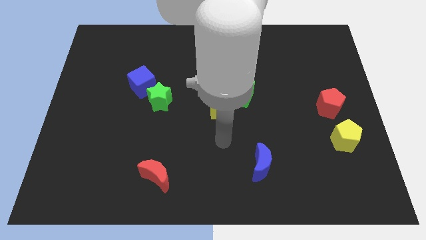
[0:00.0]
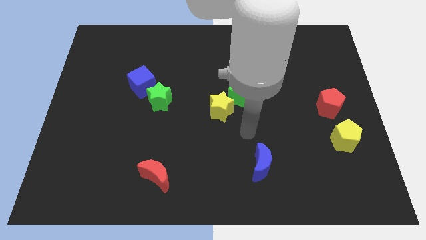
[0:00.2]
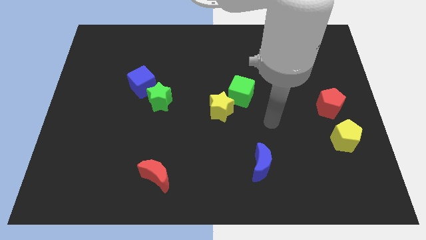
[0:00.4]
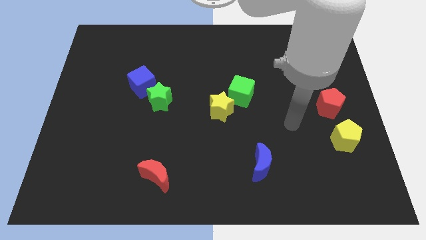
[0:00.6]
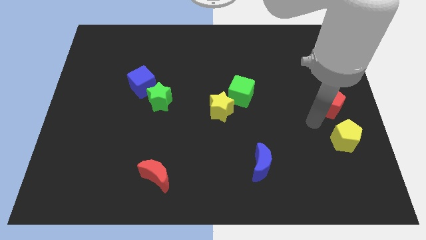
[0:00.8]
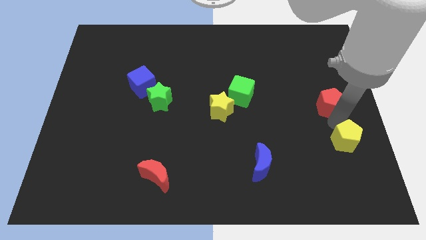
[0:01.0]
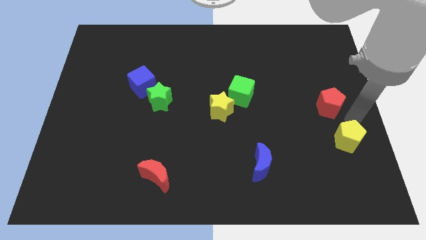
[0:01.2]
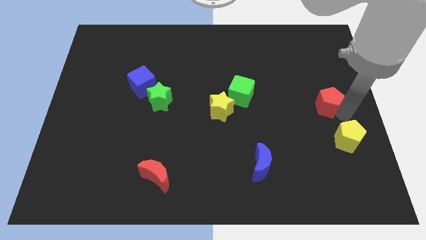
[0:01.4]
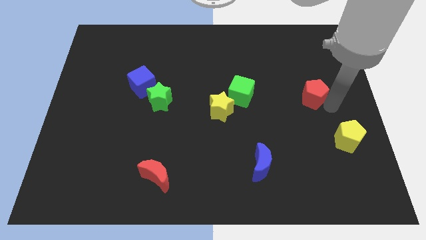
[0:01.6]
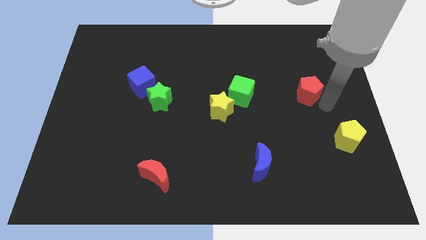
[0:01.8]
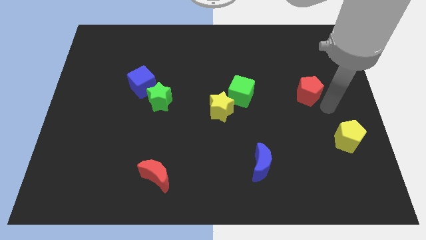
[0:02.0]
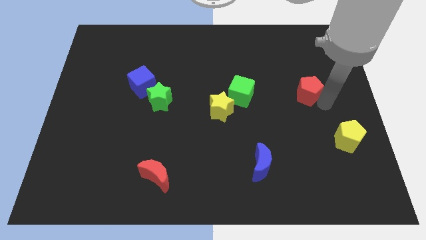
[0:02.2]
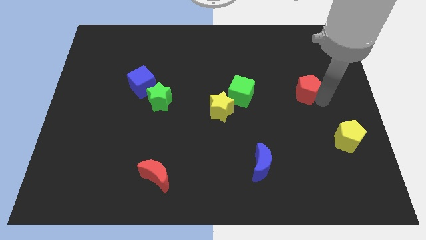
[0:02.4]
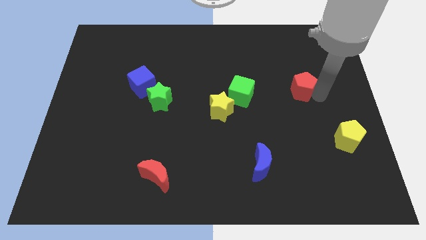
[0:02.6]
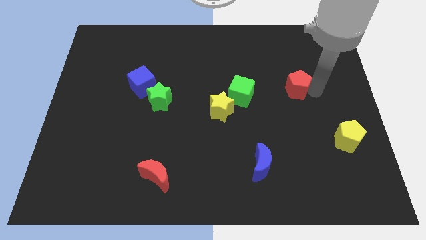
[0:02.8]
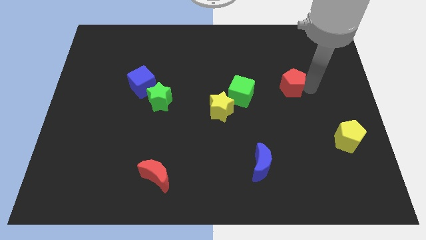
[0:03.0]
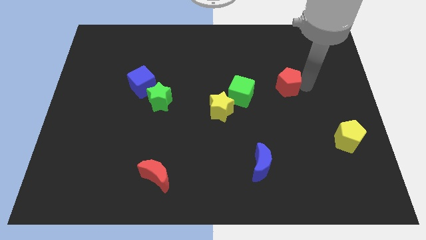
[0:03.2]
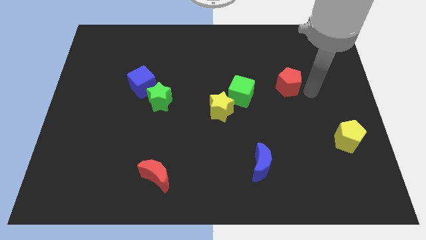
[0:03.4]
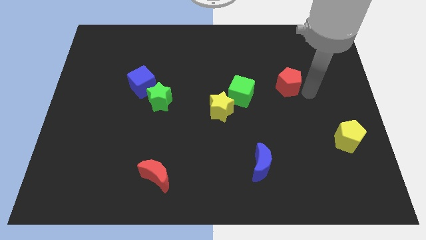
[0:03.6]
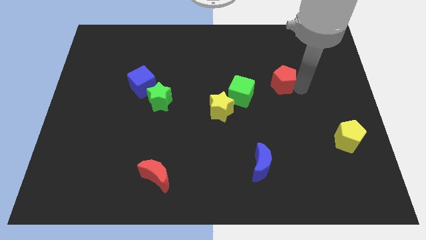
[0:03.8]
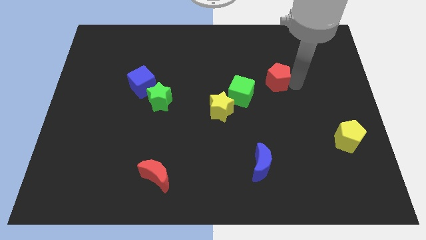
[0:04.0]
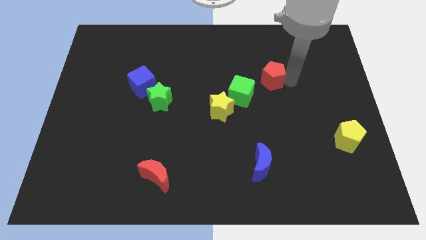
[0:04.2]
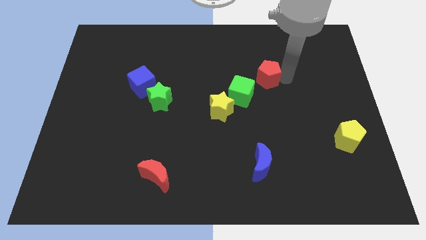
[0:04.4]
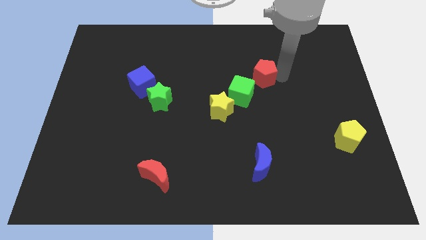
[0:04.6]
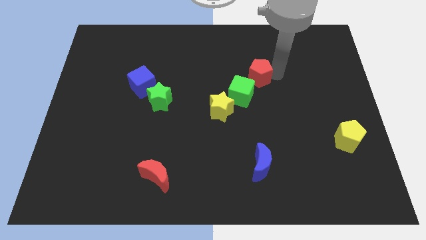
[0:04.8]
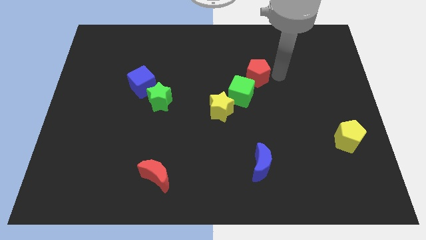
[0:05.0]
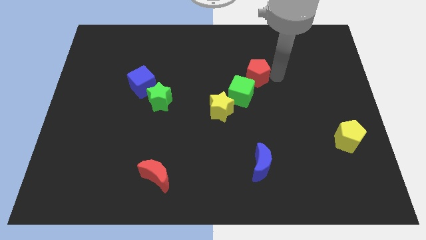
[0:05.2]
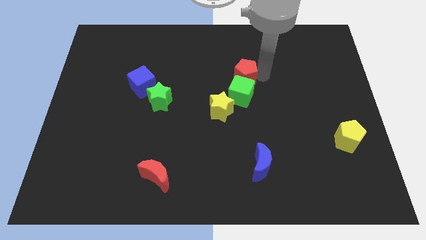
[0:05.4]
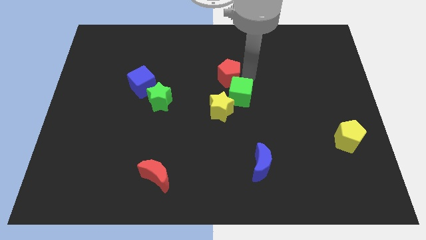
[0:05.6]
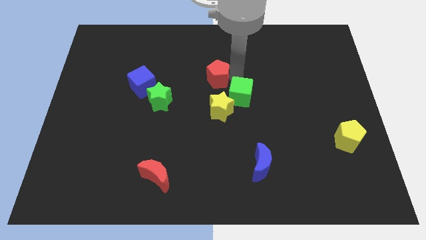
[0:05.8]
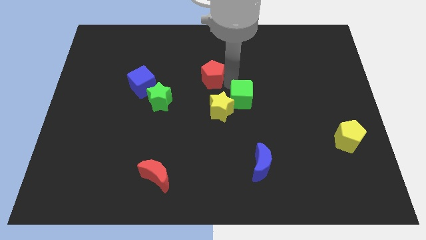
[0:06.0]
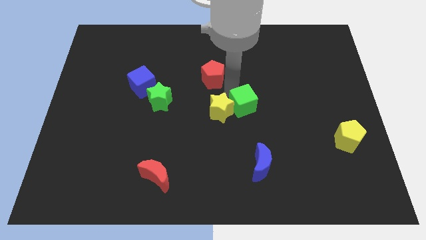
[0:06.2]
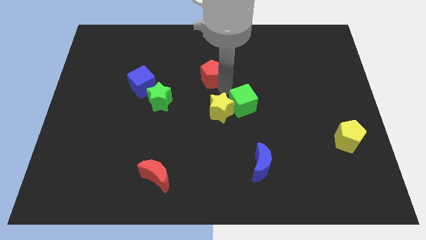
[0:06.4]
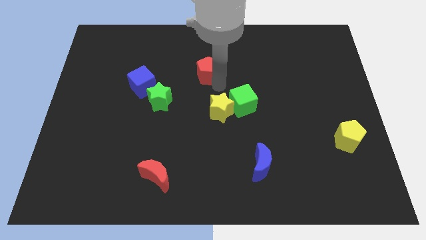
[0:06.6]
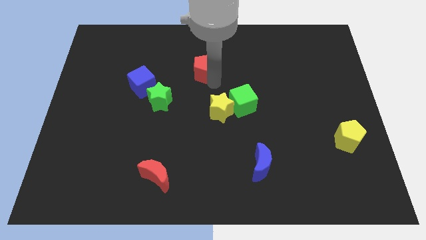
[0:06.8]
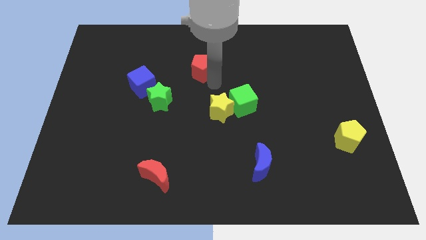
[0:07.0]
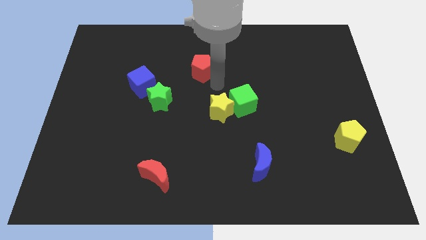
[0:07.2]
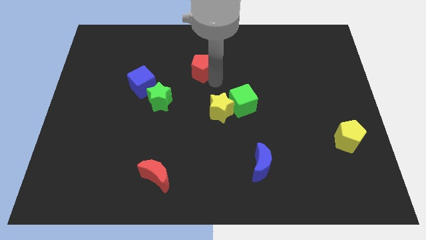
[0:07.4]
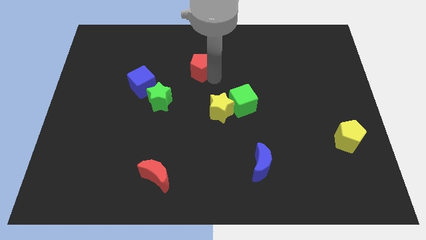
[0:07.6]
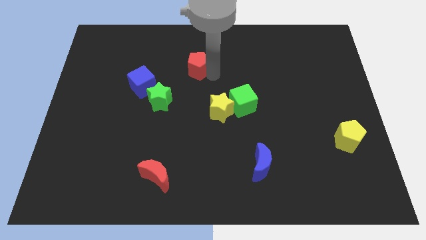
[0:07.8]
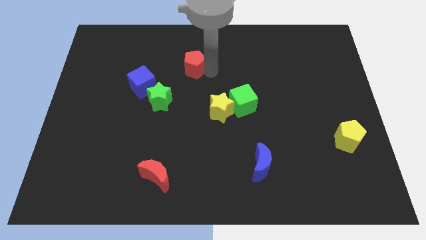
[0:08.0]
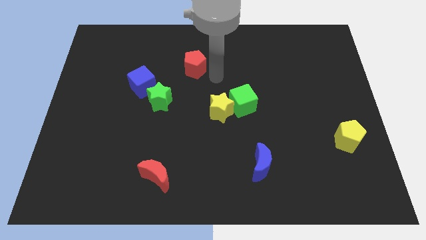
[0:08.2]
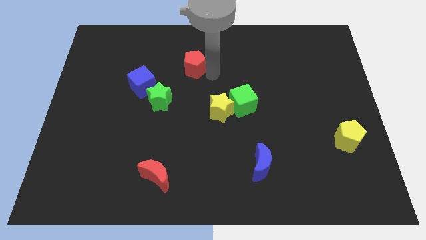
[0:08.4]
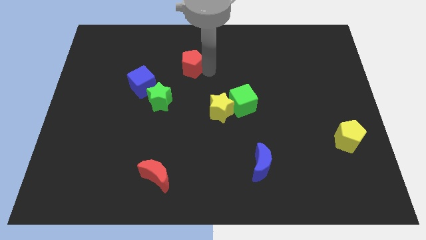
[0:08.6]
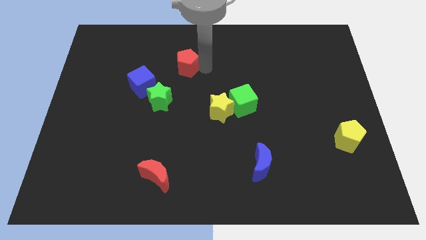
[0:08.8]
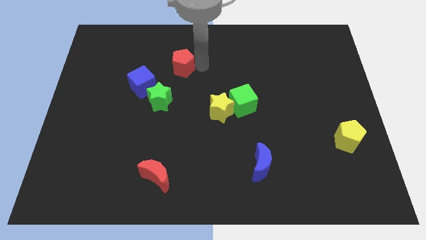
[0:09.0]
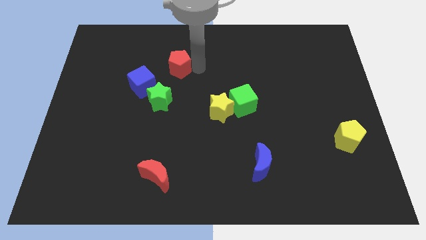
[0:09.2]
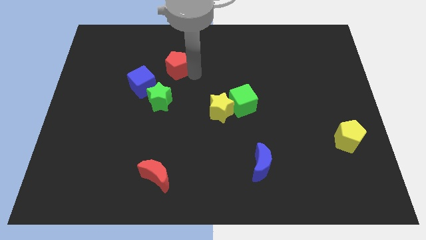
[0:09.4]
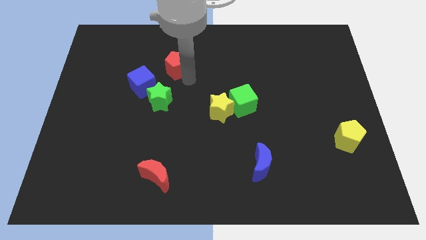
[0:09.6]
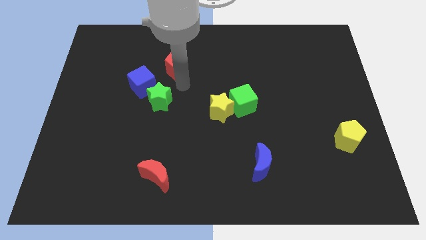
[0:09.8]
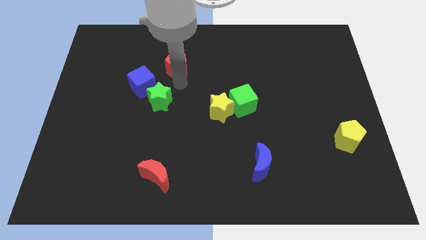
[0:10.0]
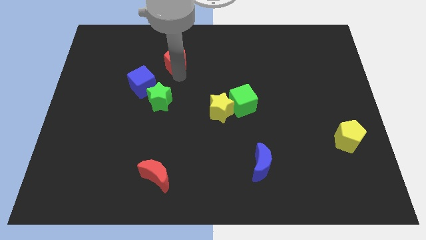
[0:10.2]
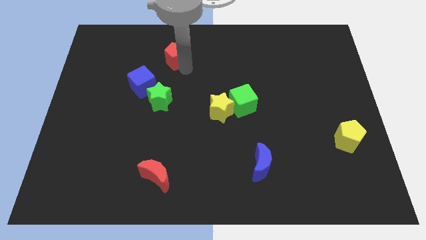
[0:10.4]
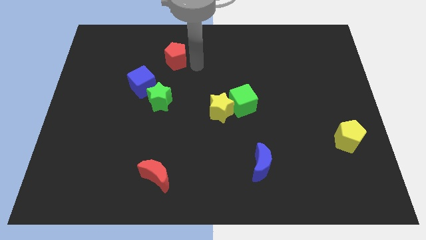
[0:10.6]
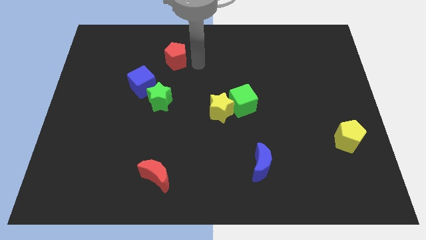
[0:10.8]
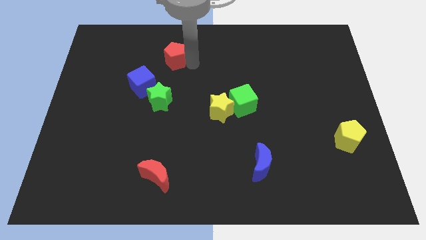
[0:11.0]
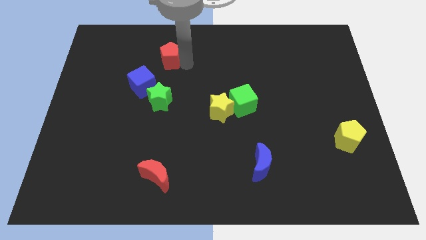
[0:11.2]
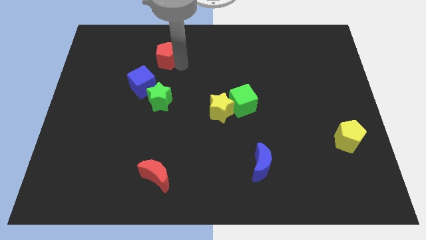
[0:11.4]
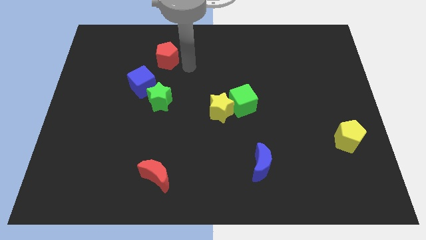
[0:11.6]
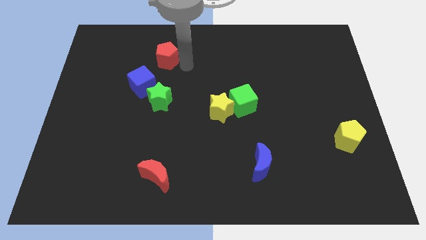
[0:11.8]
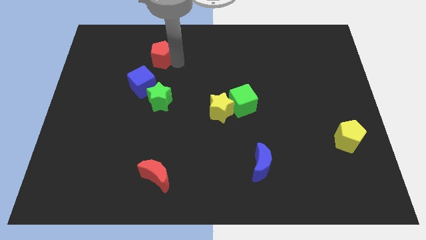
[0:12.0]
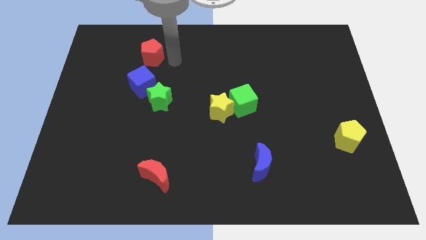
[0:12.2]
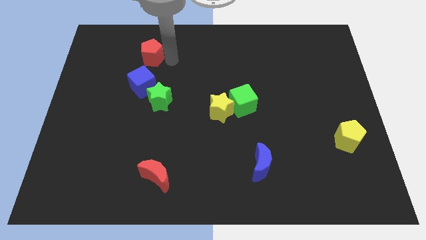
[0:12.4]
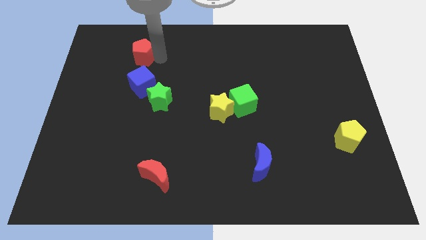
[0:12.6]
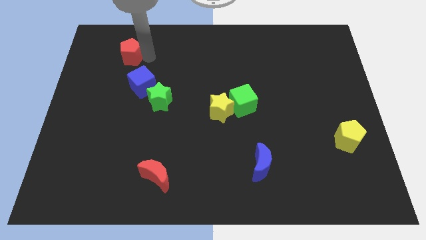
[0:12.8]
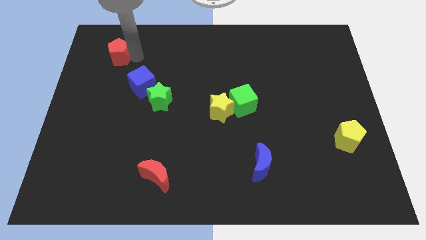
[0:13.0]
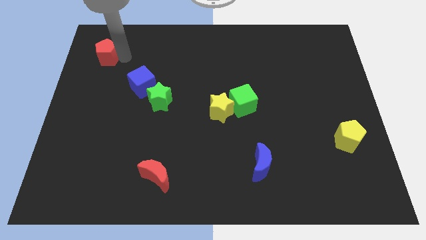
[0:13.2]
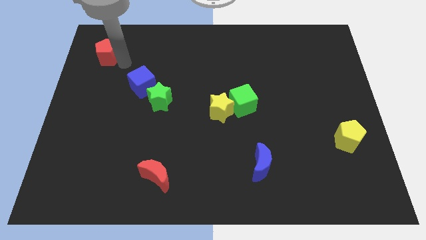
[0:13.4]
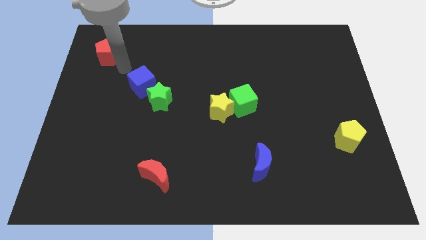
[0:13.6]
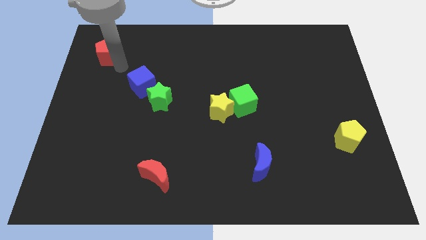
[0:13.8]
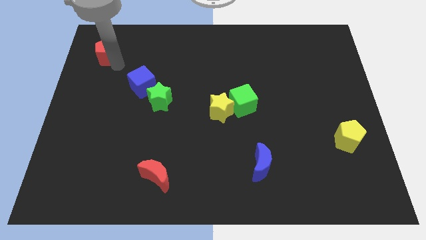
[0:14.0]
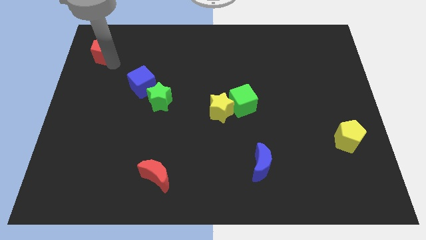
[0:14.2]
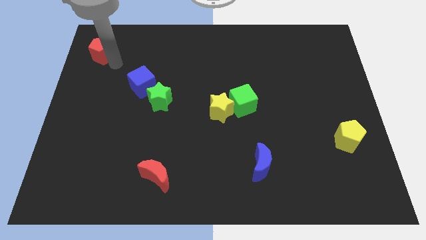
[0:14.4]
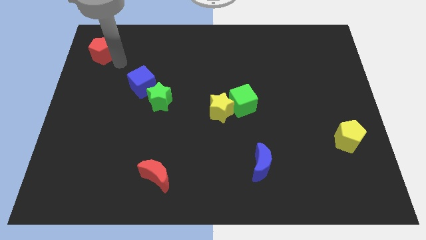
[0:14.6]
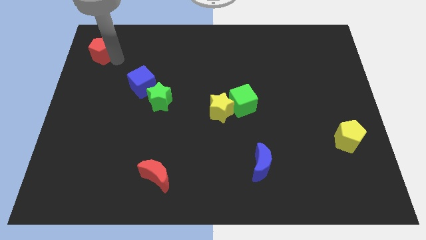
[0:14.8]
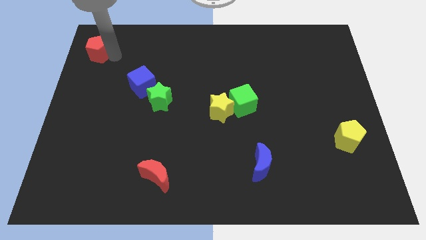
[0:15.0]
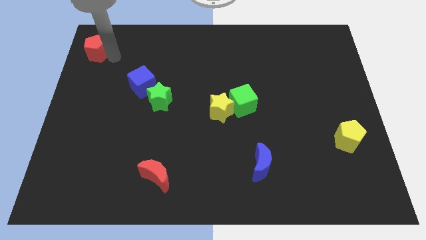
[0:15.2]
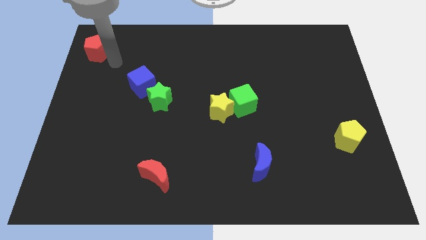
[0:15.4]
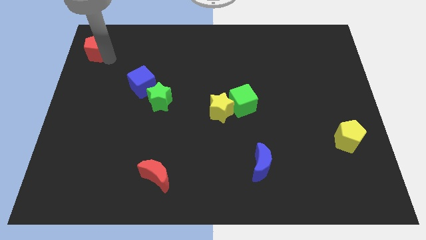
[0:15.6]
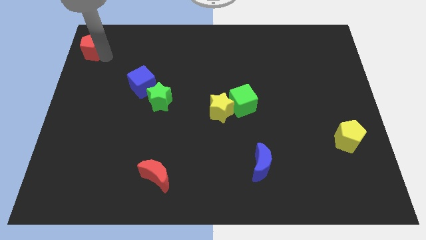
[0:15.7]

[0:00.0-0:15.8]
push the red pentagon to the top left corner
